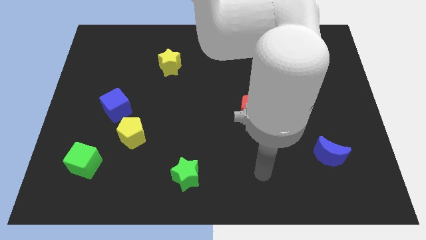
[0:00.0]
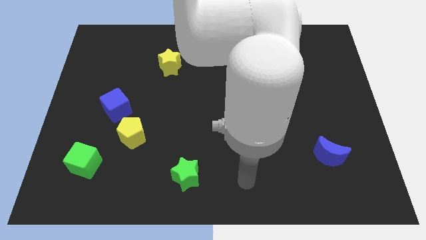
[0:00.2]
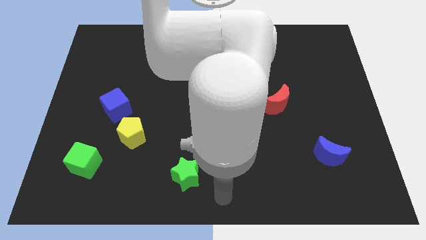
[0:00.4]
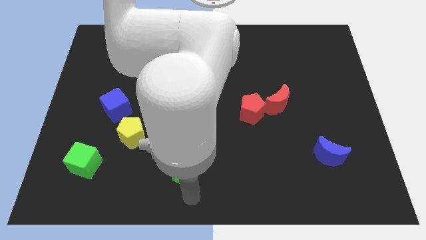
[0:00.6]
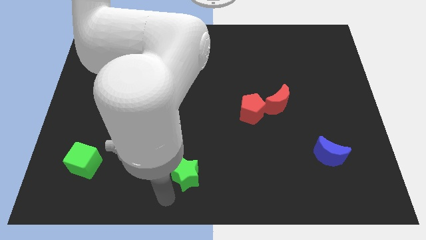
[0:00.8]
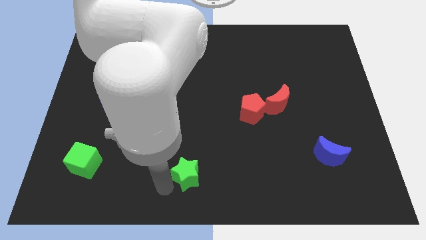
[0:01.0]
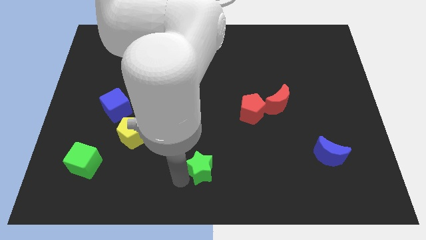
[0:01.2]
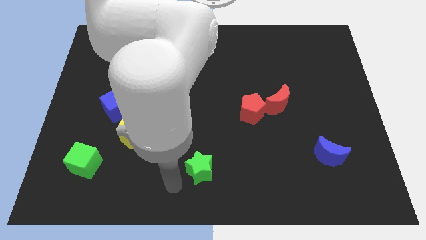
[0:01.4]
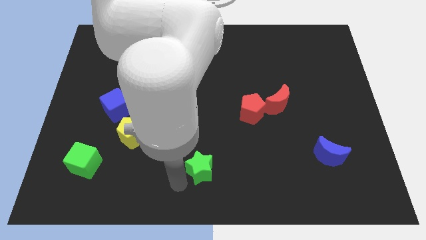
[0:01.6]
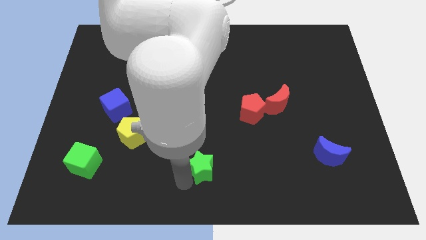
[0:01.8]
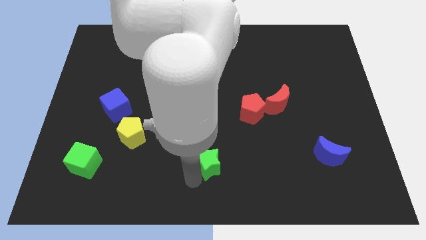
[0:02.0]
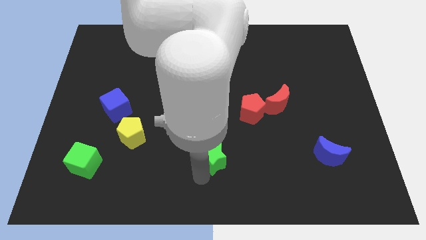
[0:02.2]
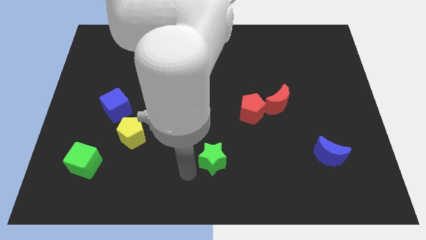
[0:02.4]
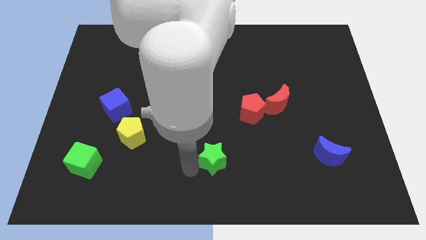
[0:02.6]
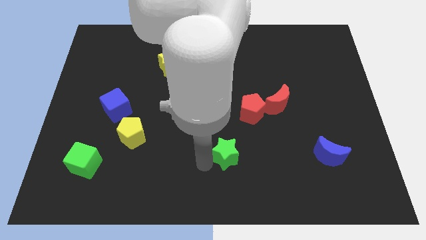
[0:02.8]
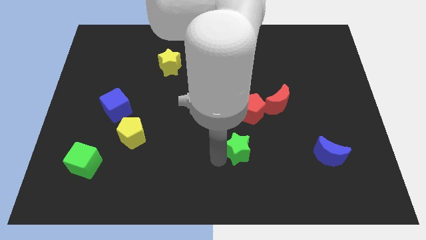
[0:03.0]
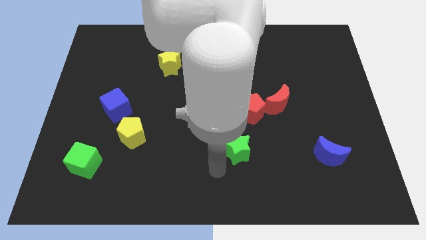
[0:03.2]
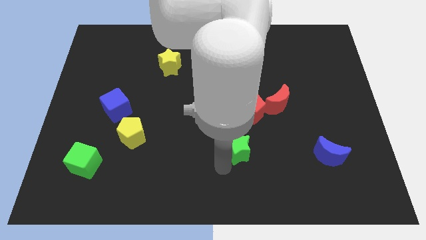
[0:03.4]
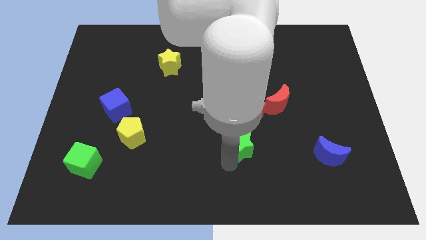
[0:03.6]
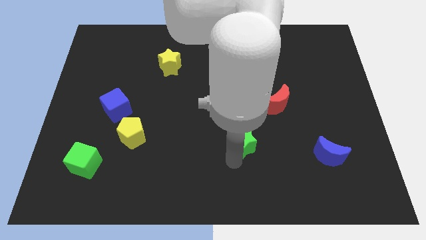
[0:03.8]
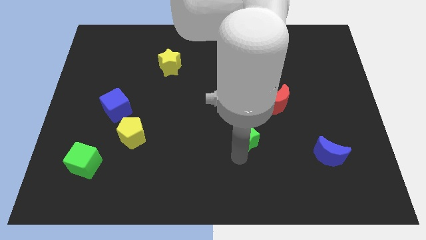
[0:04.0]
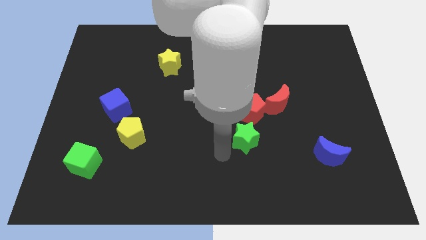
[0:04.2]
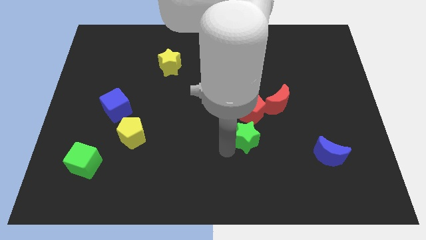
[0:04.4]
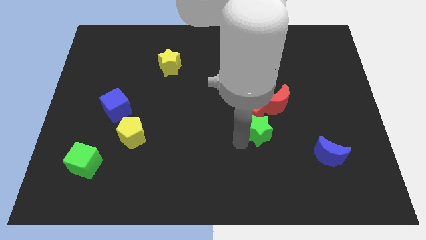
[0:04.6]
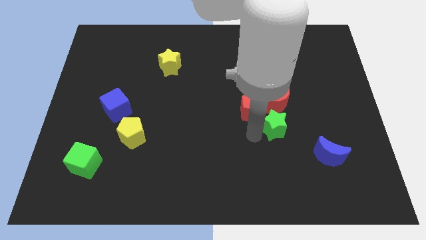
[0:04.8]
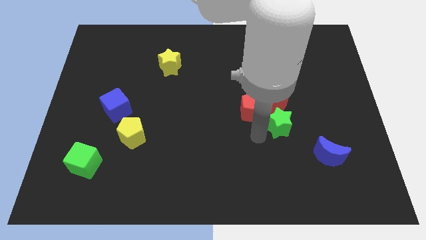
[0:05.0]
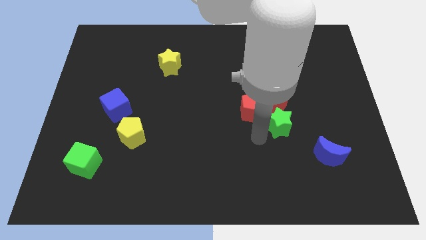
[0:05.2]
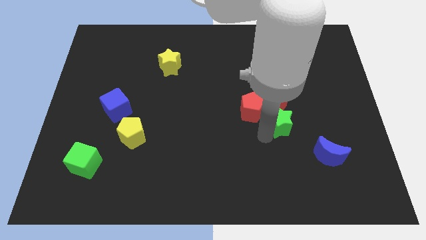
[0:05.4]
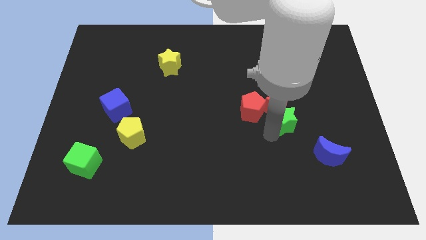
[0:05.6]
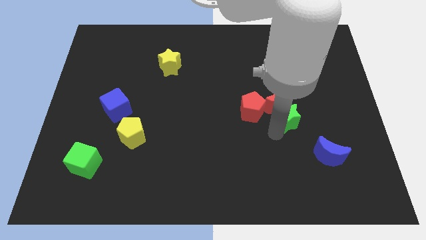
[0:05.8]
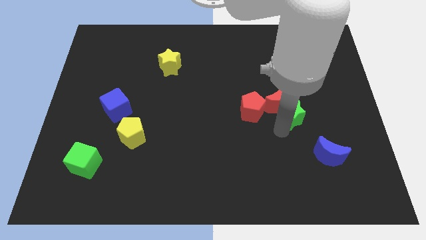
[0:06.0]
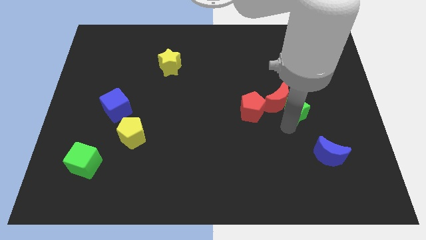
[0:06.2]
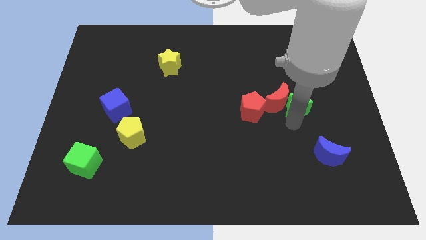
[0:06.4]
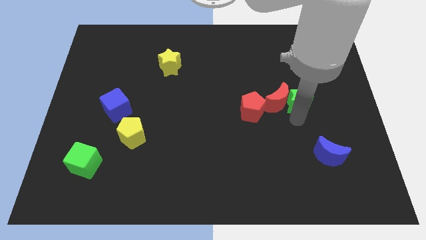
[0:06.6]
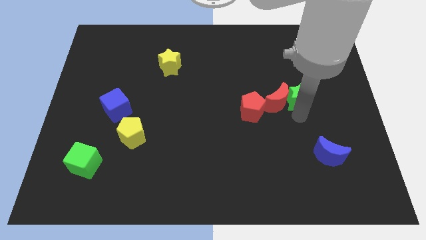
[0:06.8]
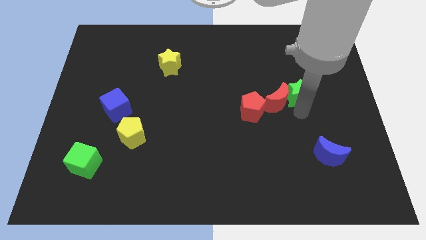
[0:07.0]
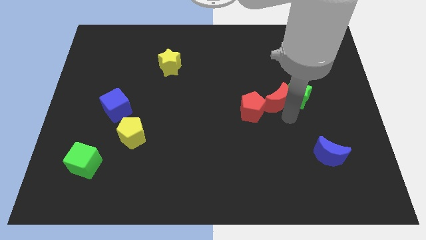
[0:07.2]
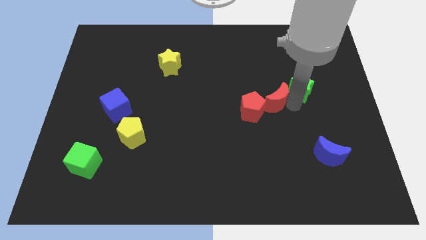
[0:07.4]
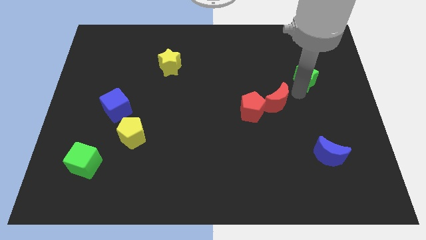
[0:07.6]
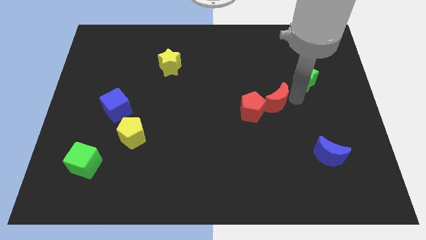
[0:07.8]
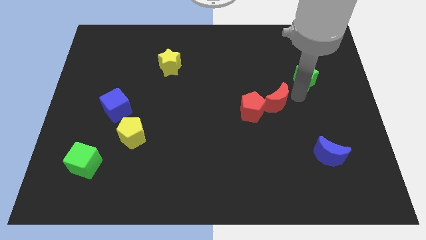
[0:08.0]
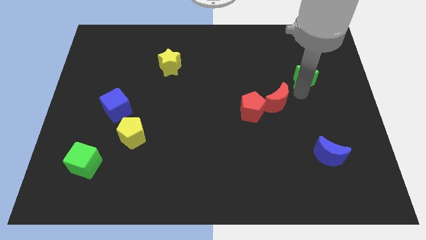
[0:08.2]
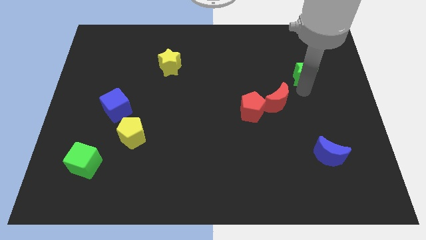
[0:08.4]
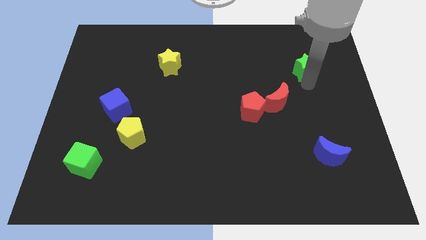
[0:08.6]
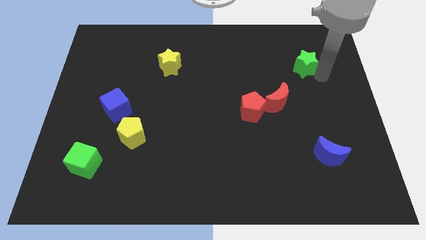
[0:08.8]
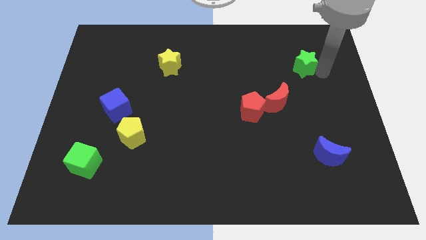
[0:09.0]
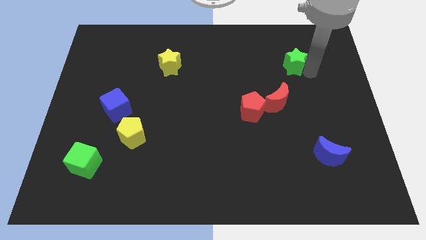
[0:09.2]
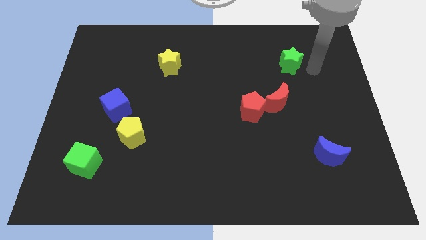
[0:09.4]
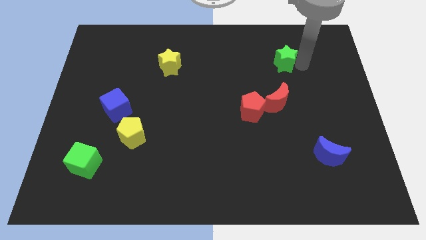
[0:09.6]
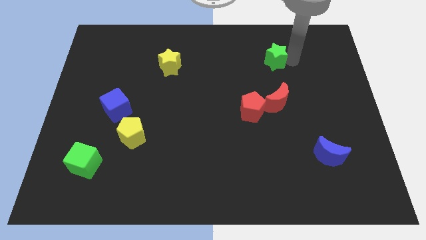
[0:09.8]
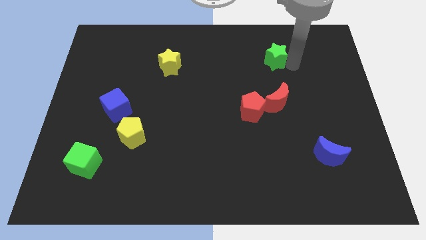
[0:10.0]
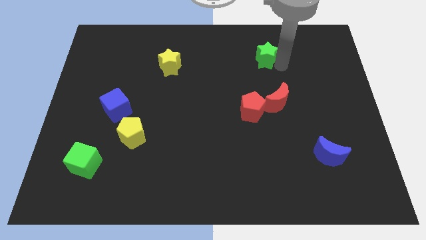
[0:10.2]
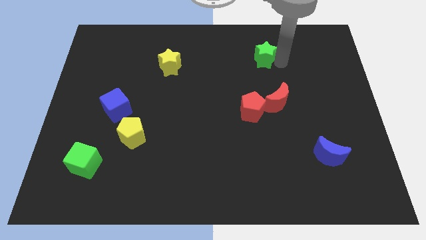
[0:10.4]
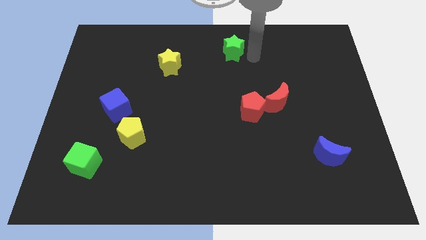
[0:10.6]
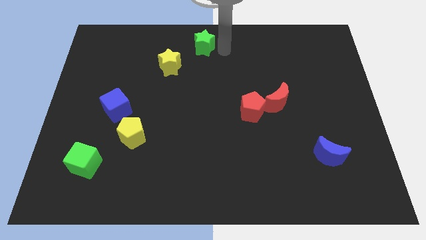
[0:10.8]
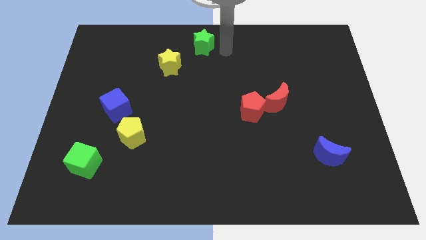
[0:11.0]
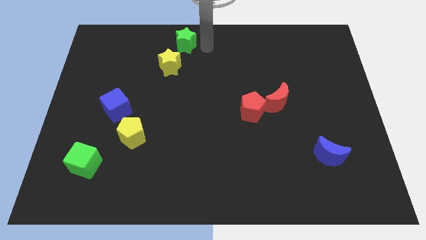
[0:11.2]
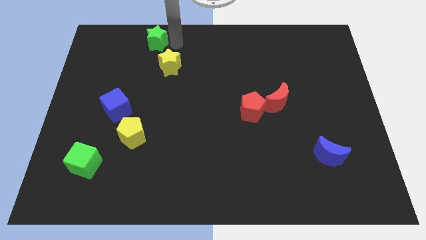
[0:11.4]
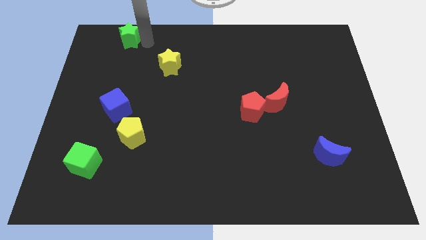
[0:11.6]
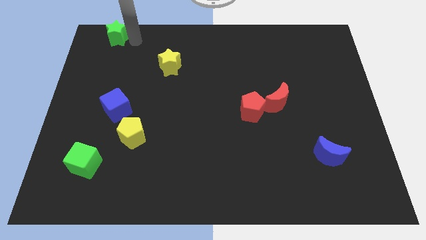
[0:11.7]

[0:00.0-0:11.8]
move the green star to the top left

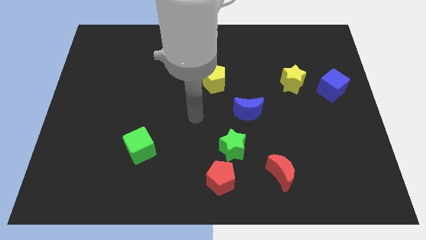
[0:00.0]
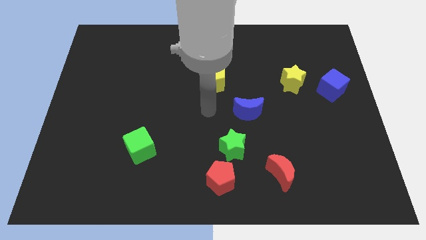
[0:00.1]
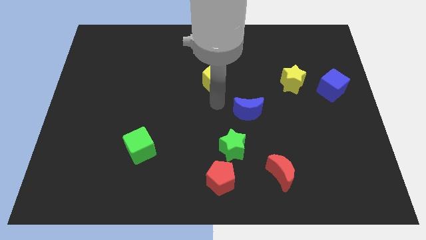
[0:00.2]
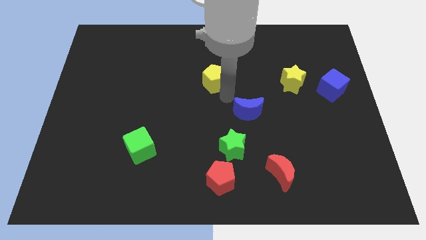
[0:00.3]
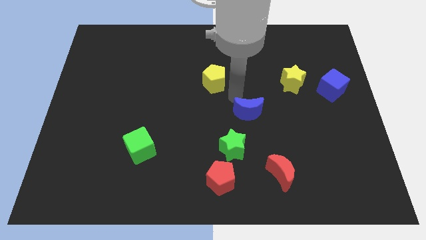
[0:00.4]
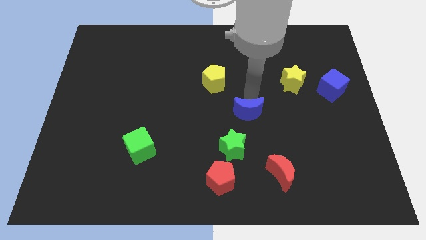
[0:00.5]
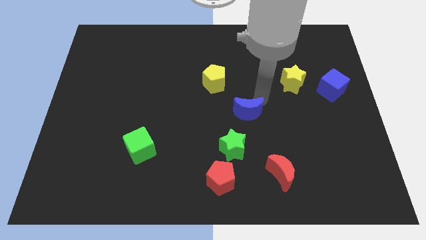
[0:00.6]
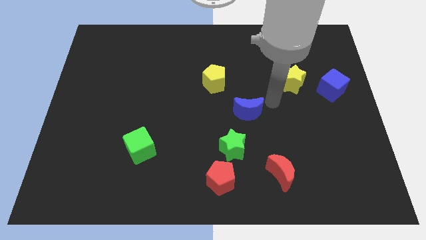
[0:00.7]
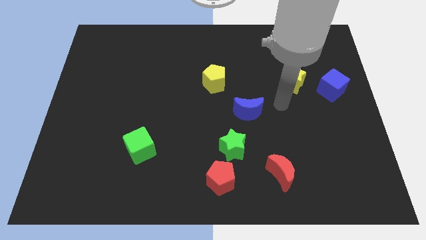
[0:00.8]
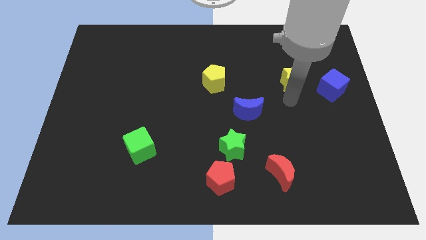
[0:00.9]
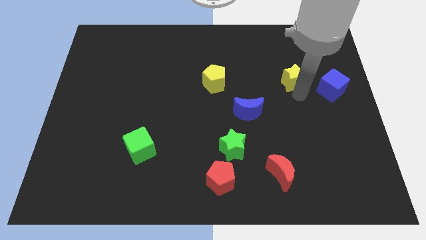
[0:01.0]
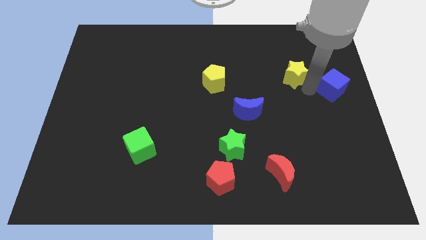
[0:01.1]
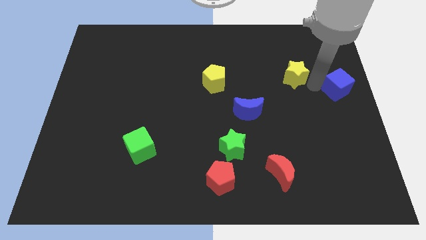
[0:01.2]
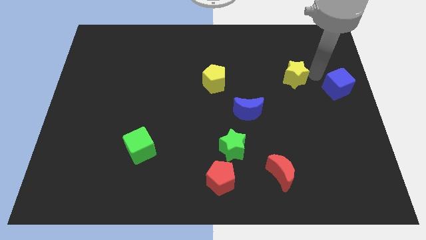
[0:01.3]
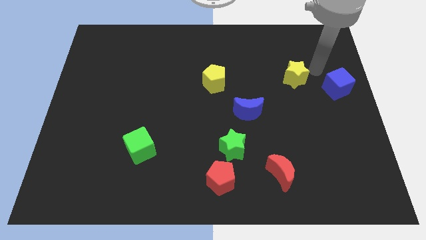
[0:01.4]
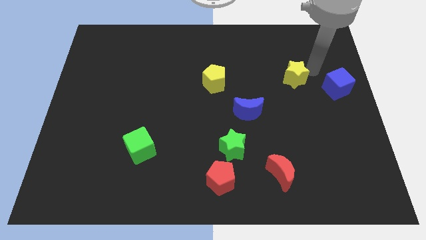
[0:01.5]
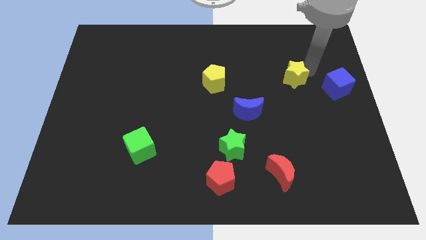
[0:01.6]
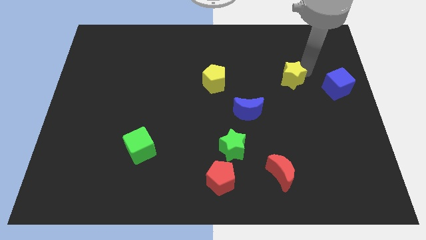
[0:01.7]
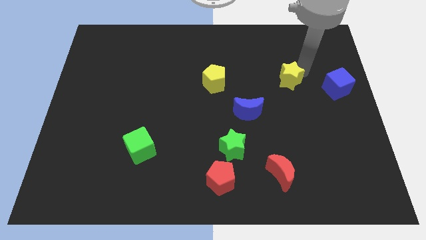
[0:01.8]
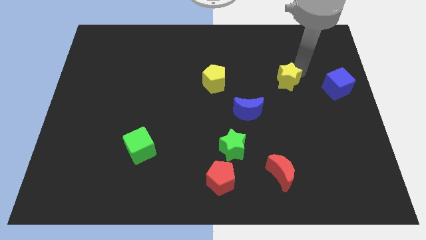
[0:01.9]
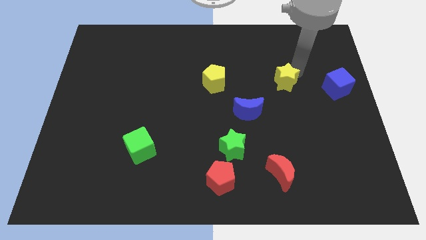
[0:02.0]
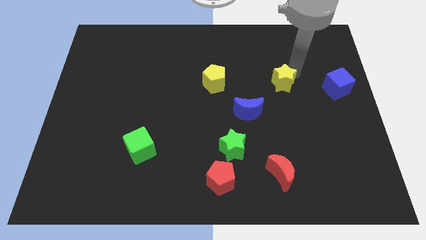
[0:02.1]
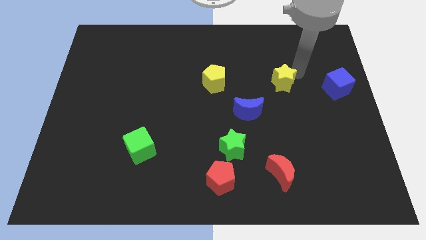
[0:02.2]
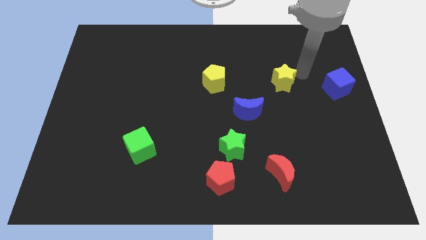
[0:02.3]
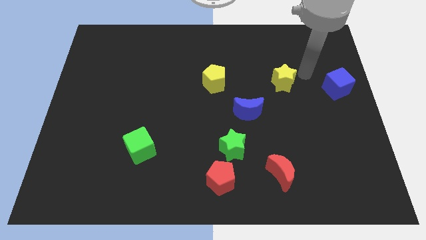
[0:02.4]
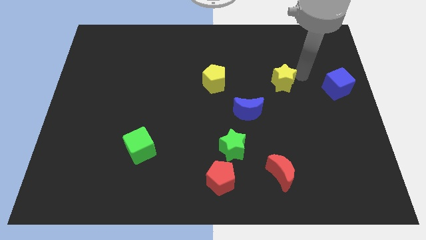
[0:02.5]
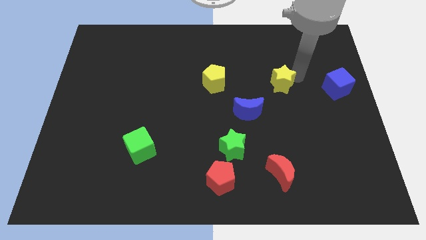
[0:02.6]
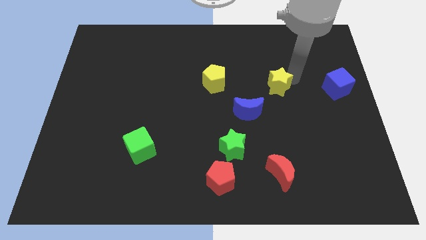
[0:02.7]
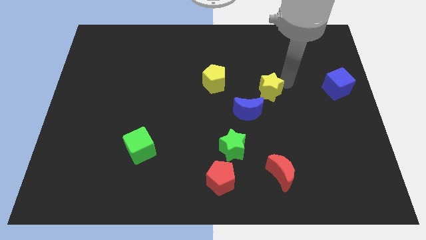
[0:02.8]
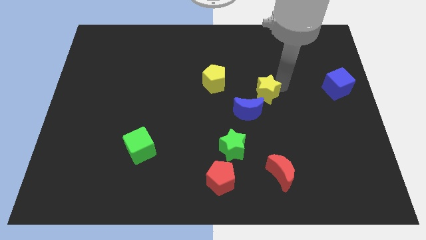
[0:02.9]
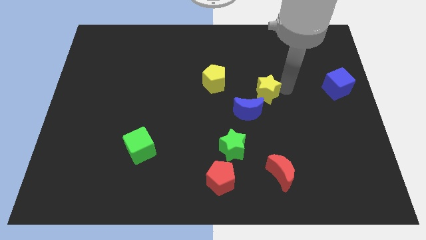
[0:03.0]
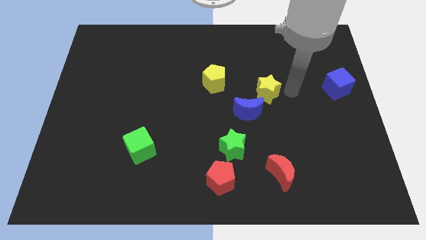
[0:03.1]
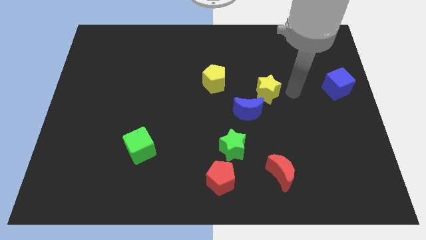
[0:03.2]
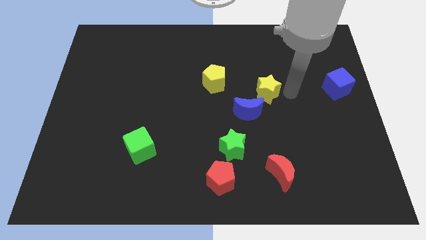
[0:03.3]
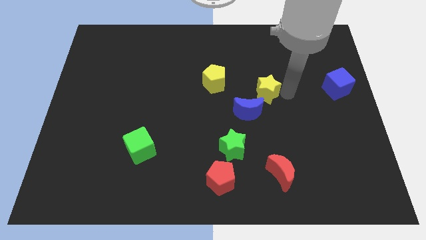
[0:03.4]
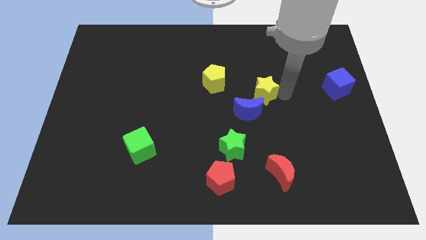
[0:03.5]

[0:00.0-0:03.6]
put the yellow star to the middle of the board
